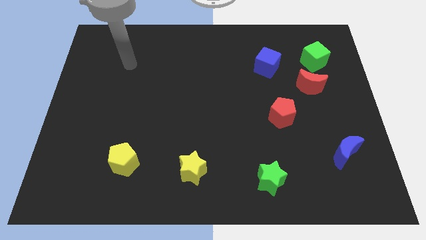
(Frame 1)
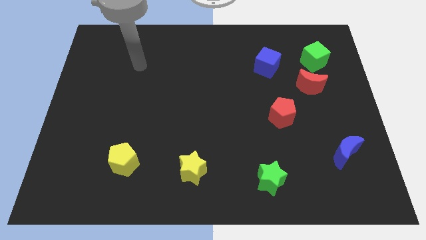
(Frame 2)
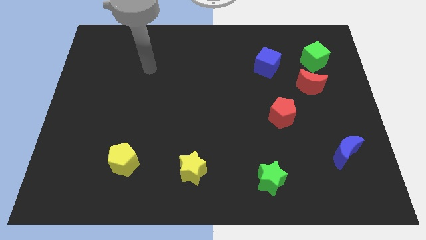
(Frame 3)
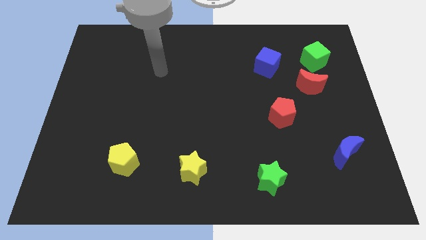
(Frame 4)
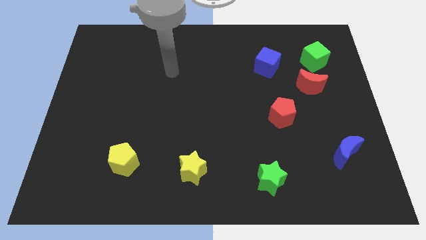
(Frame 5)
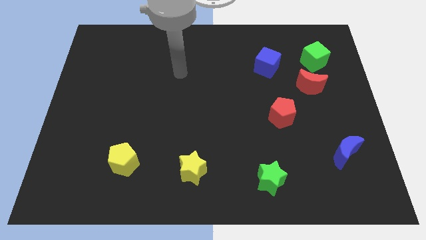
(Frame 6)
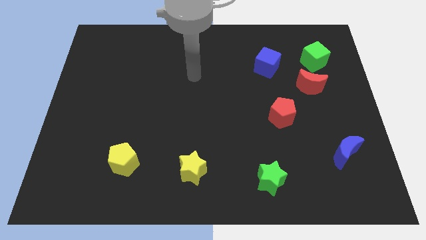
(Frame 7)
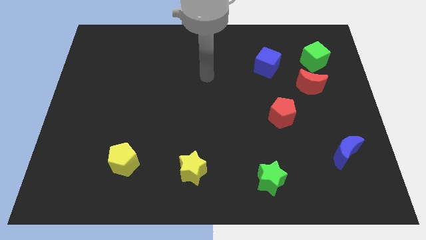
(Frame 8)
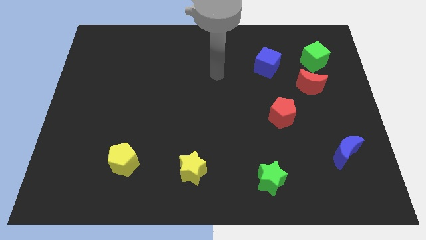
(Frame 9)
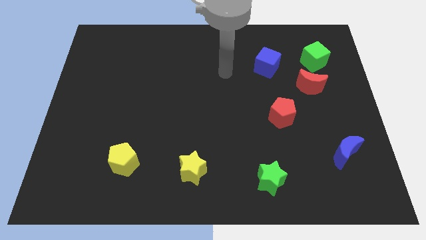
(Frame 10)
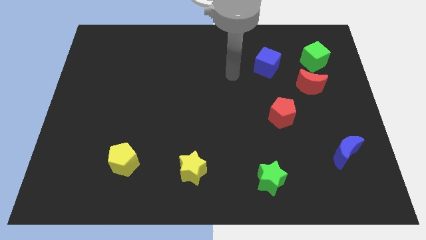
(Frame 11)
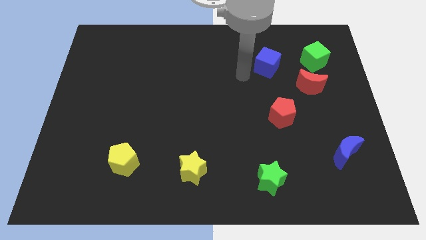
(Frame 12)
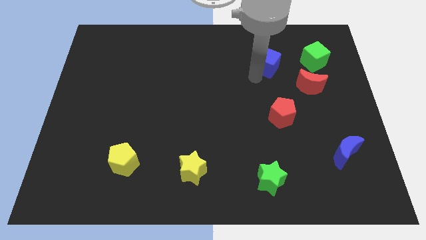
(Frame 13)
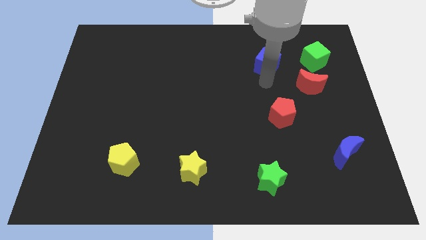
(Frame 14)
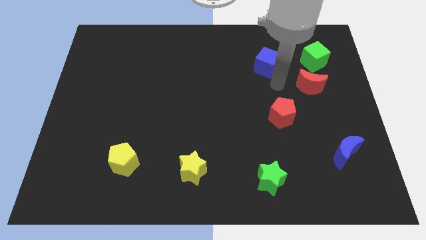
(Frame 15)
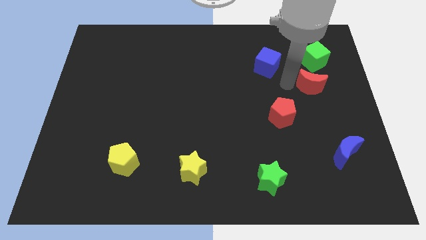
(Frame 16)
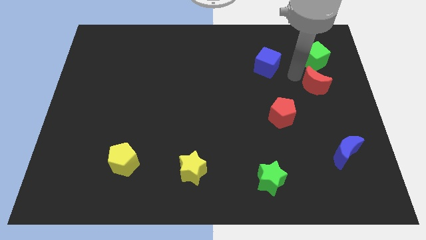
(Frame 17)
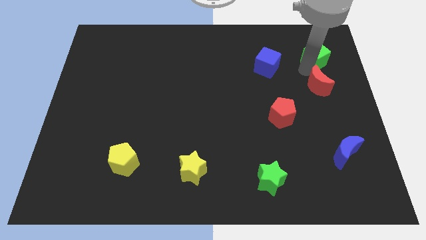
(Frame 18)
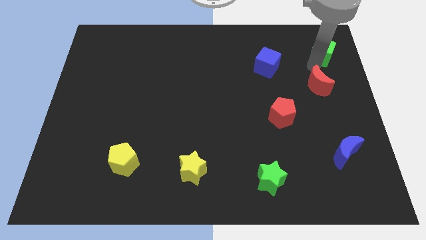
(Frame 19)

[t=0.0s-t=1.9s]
move the red moon away from the green cube

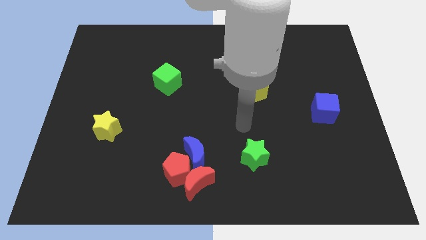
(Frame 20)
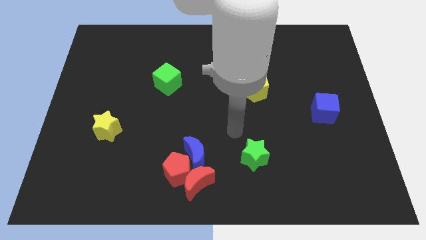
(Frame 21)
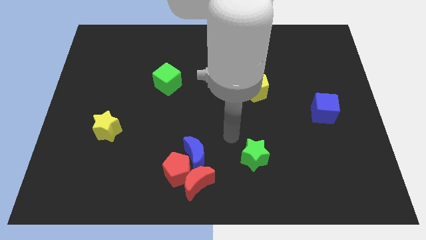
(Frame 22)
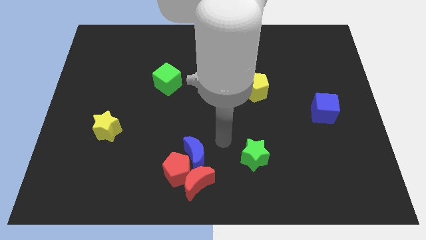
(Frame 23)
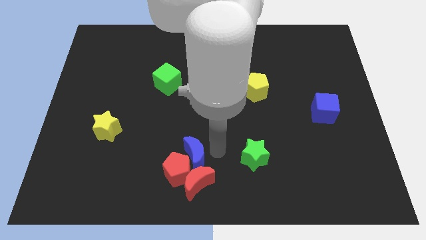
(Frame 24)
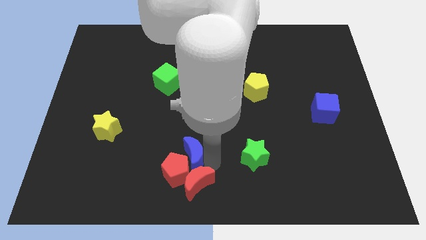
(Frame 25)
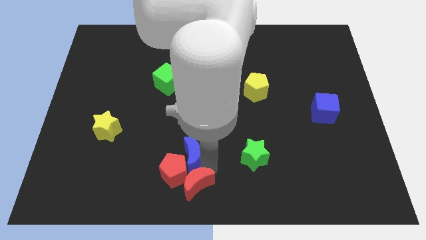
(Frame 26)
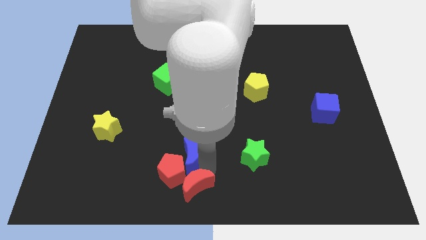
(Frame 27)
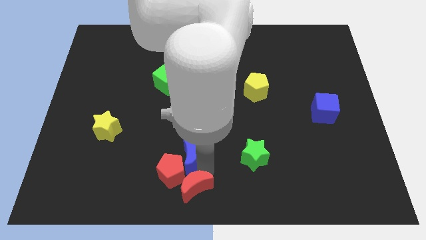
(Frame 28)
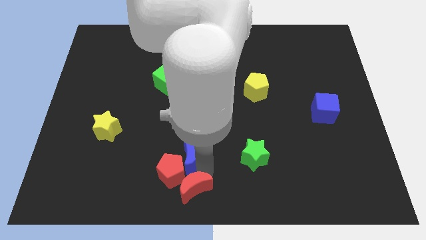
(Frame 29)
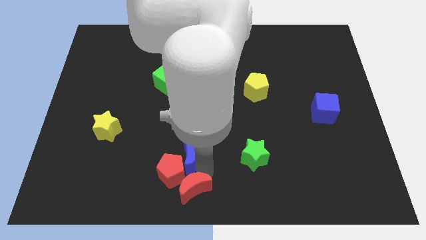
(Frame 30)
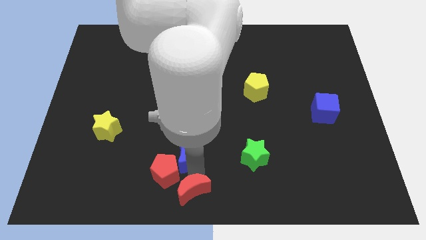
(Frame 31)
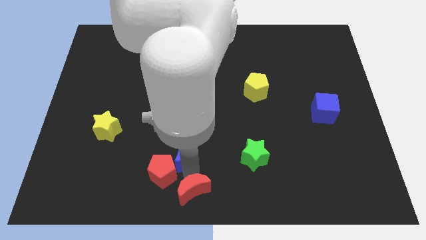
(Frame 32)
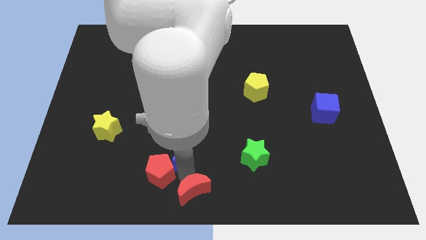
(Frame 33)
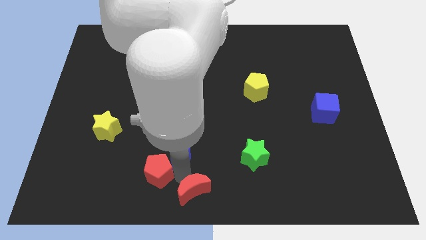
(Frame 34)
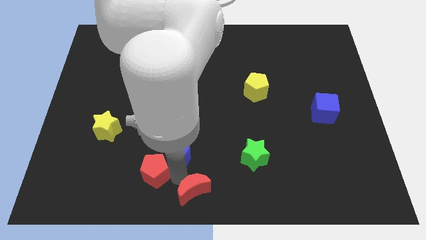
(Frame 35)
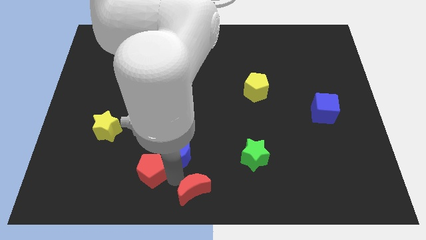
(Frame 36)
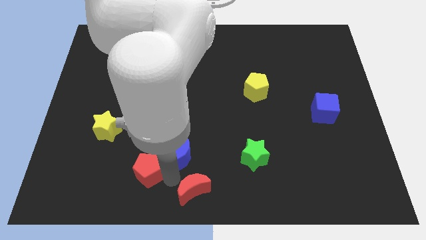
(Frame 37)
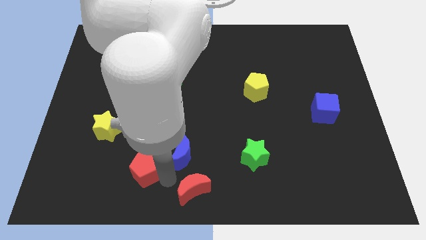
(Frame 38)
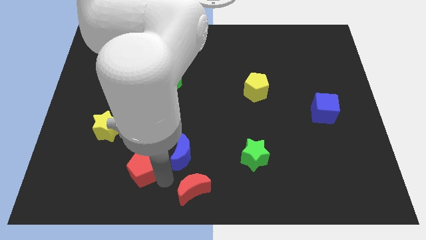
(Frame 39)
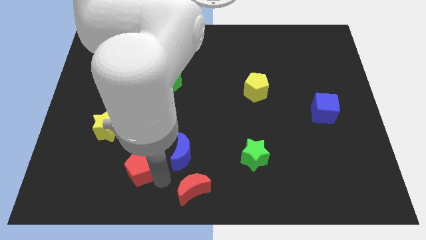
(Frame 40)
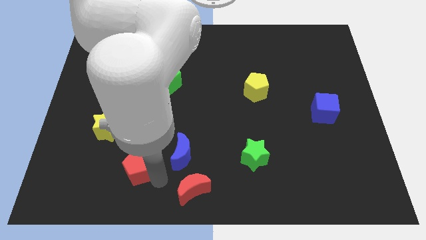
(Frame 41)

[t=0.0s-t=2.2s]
separate the red pentagon from the red moon and blue moon

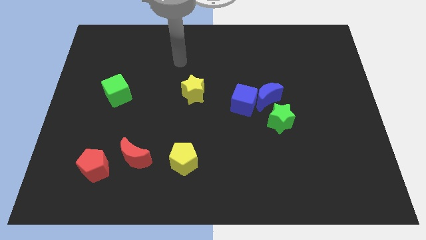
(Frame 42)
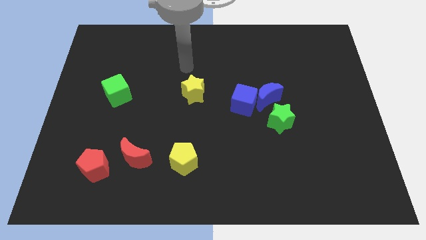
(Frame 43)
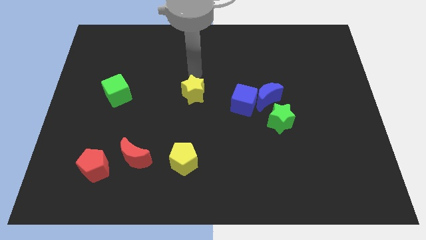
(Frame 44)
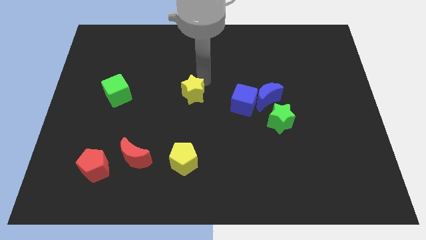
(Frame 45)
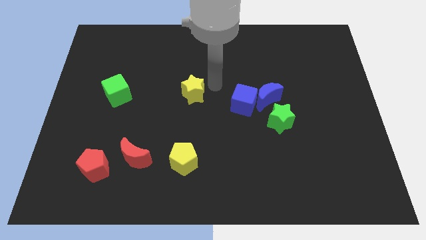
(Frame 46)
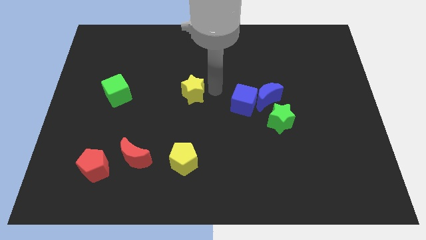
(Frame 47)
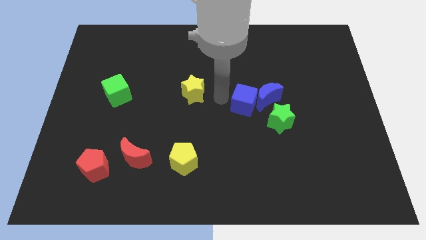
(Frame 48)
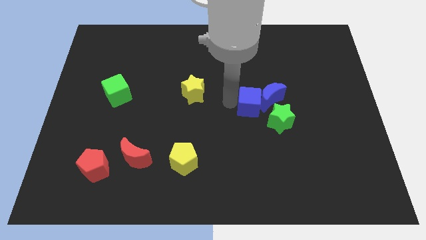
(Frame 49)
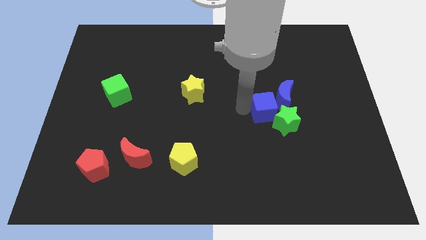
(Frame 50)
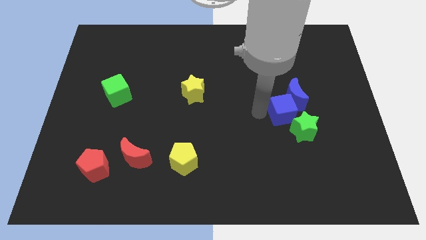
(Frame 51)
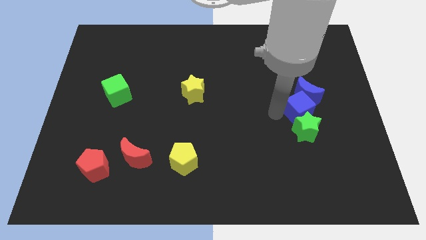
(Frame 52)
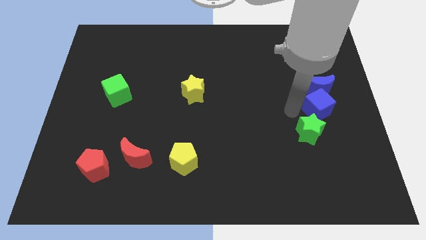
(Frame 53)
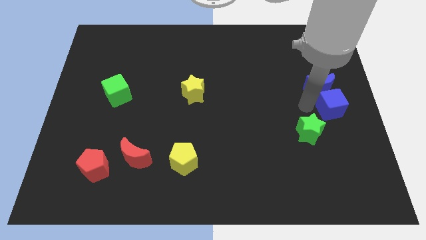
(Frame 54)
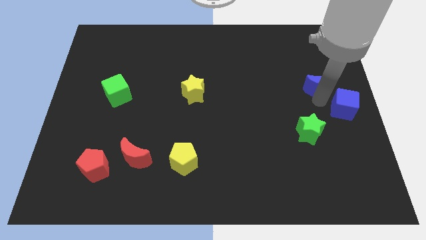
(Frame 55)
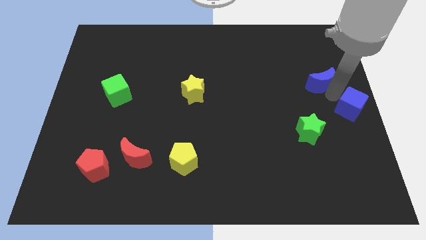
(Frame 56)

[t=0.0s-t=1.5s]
move the blue moon away from the blue cube and green star

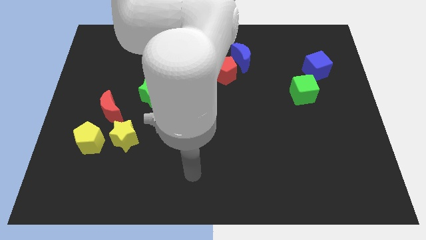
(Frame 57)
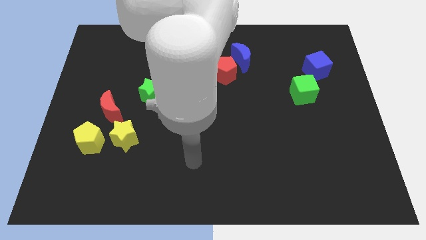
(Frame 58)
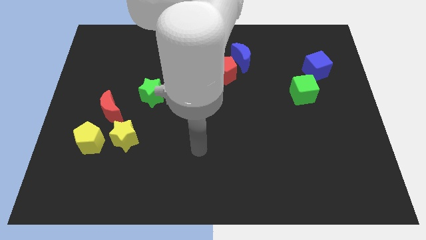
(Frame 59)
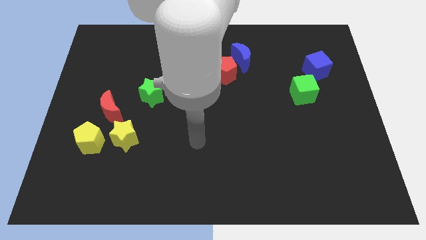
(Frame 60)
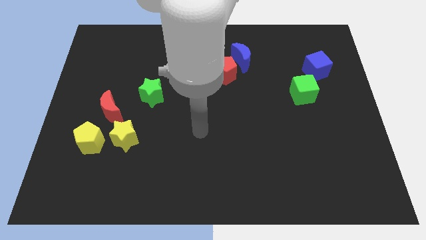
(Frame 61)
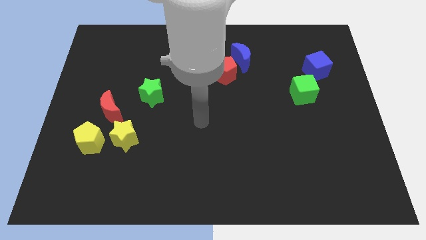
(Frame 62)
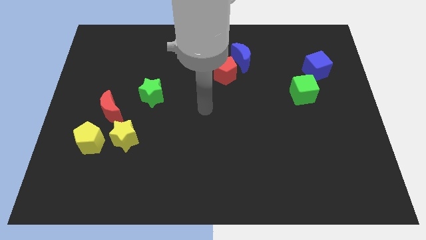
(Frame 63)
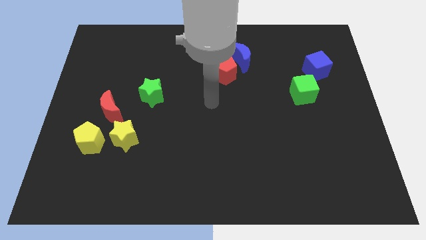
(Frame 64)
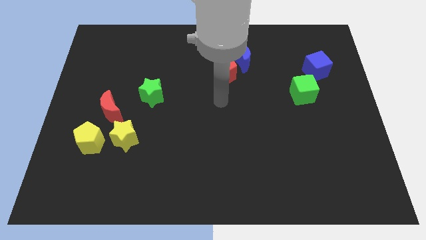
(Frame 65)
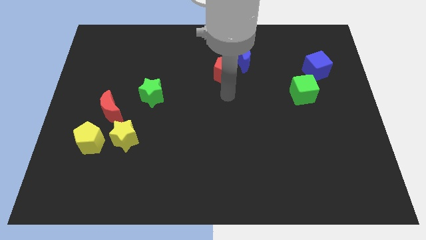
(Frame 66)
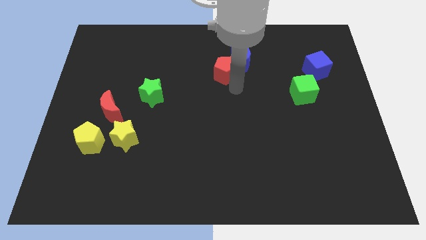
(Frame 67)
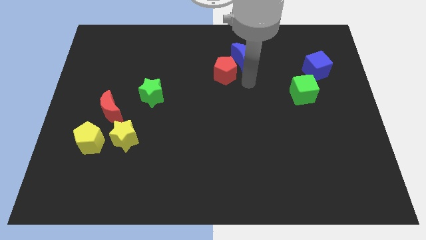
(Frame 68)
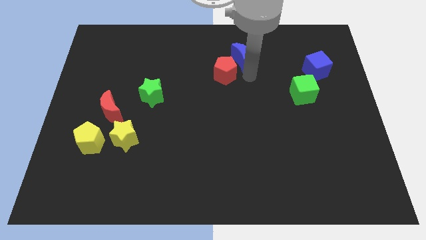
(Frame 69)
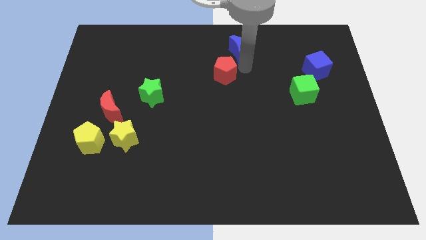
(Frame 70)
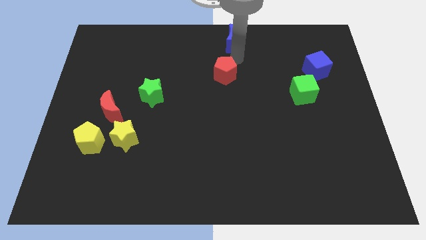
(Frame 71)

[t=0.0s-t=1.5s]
move the red pentagon away from the blue moon

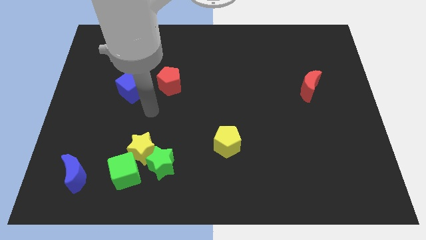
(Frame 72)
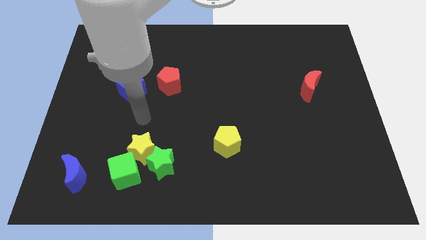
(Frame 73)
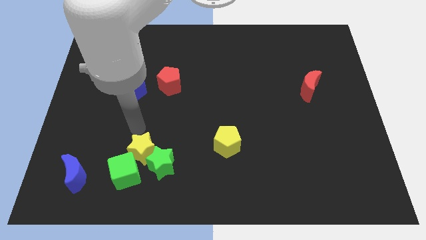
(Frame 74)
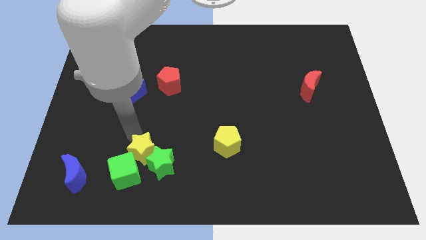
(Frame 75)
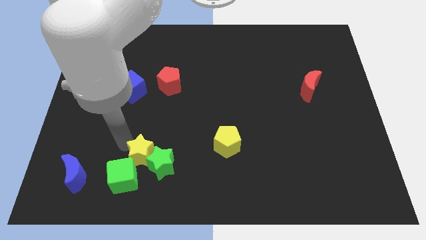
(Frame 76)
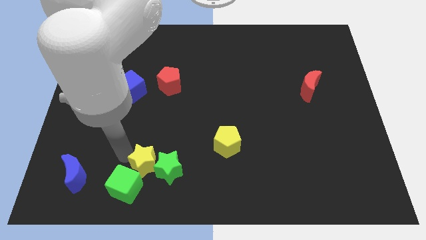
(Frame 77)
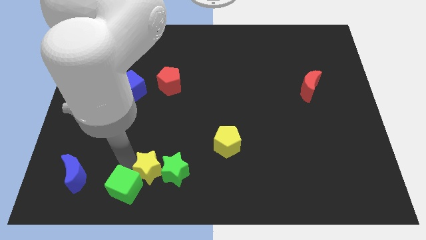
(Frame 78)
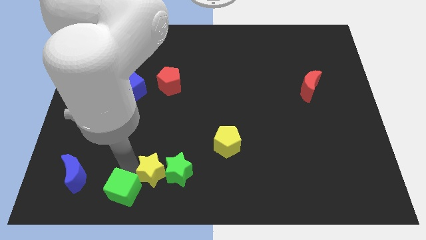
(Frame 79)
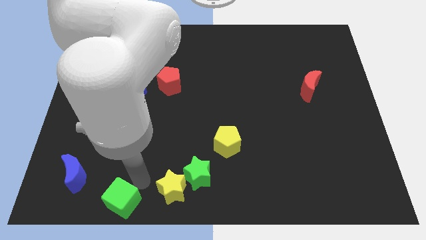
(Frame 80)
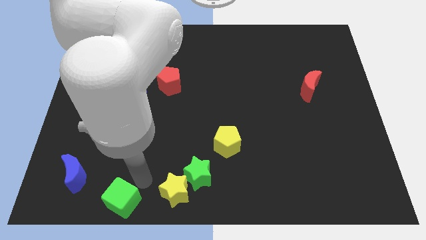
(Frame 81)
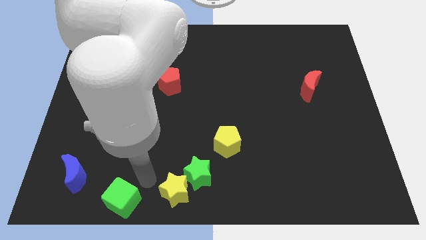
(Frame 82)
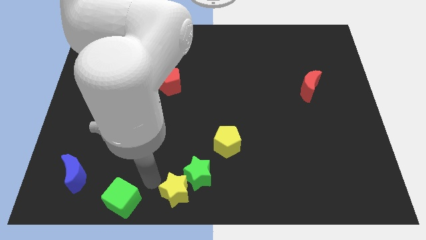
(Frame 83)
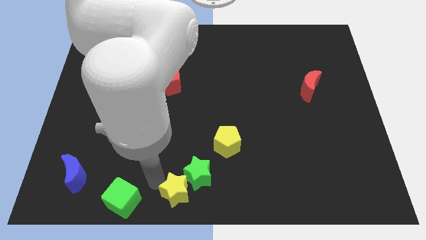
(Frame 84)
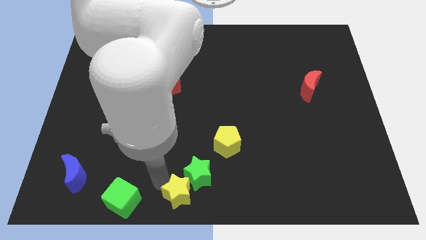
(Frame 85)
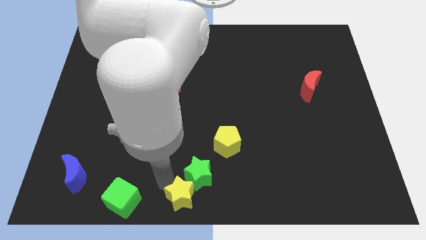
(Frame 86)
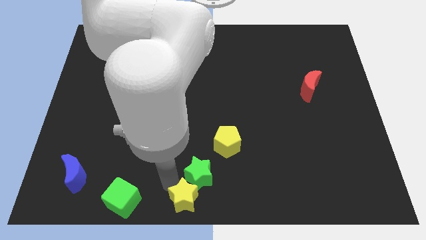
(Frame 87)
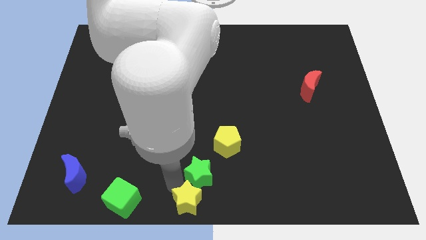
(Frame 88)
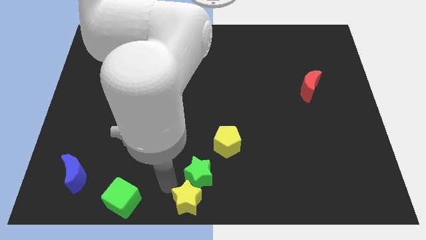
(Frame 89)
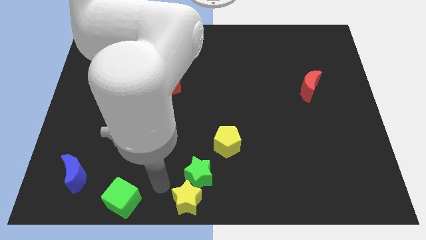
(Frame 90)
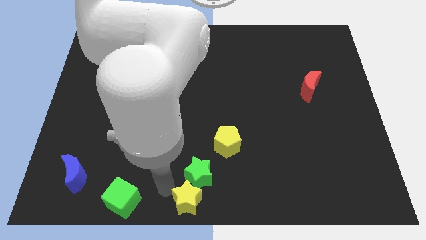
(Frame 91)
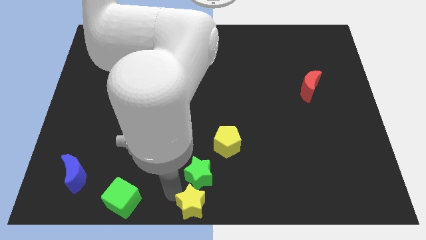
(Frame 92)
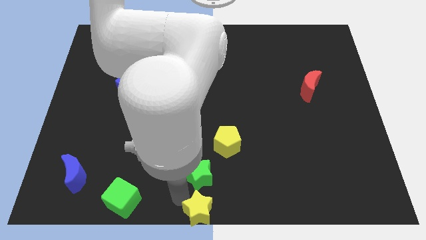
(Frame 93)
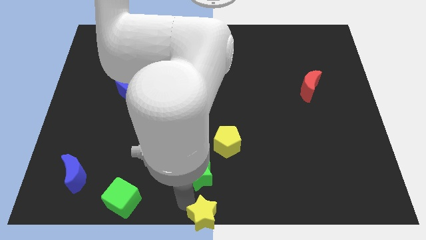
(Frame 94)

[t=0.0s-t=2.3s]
pull the yellow star apart from the green star and green cube
